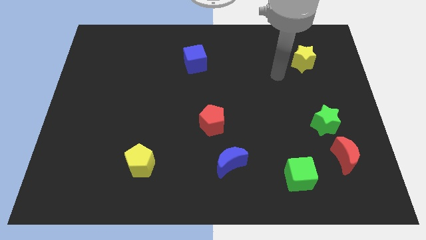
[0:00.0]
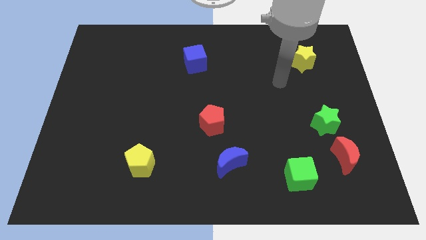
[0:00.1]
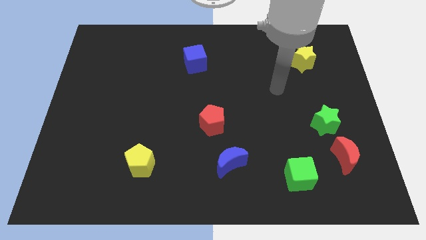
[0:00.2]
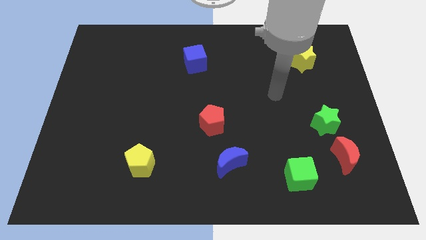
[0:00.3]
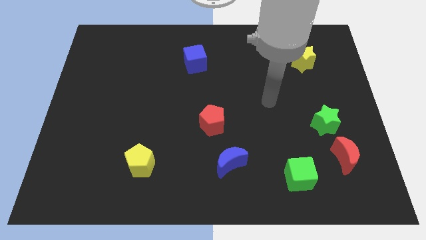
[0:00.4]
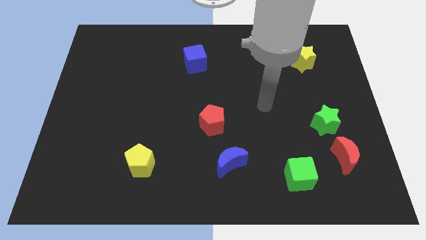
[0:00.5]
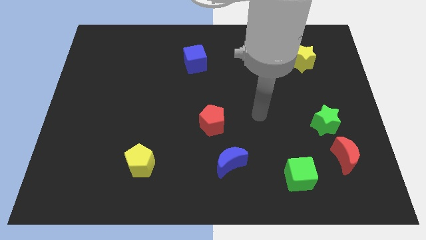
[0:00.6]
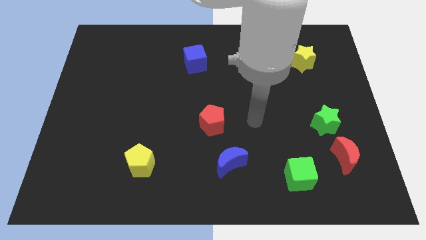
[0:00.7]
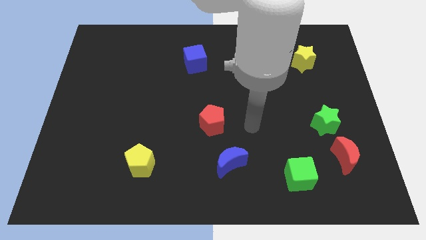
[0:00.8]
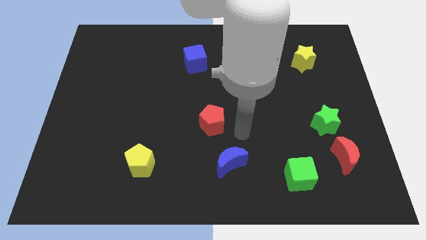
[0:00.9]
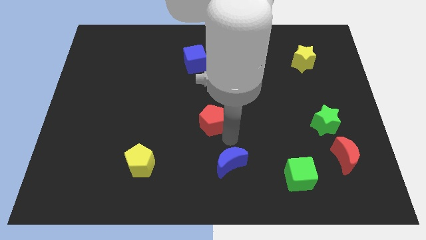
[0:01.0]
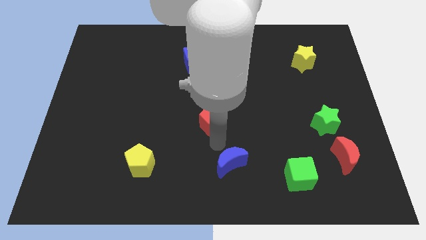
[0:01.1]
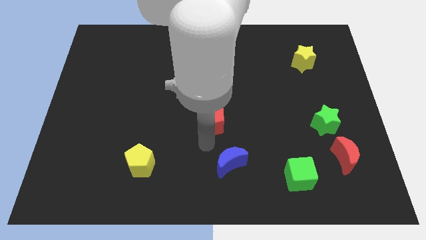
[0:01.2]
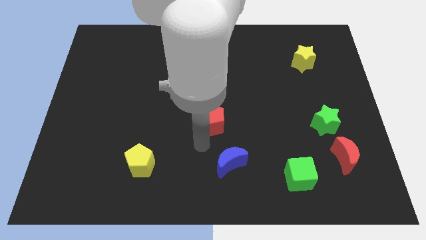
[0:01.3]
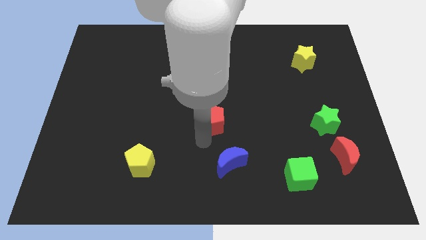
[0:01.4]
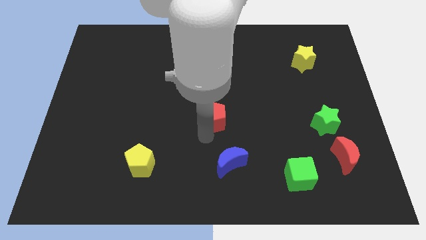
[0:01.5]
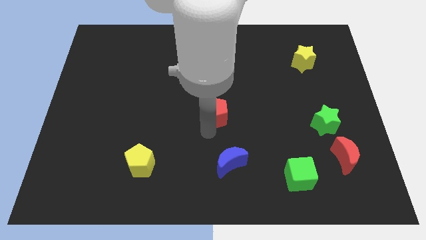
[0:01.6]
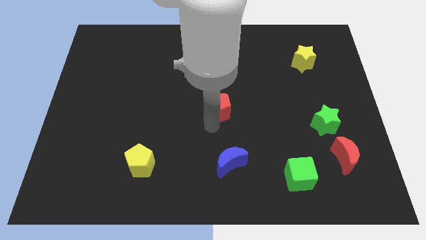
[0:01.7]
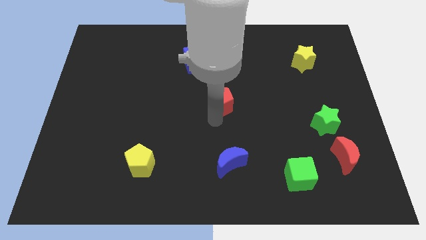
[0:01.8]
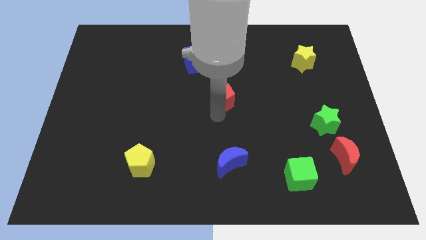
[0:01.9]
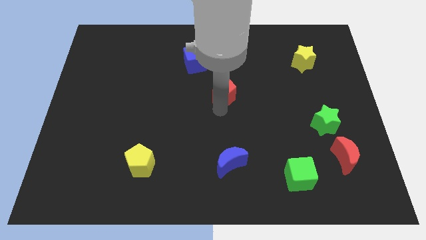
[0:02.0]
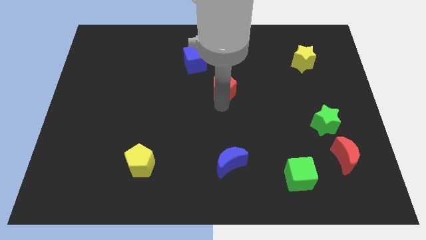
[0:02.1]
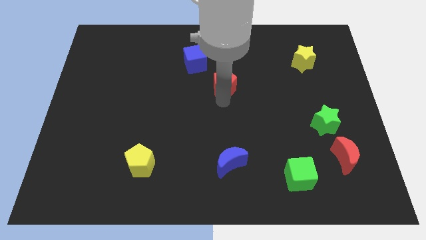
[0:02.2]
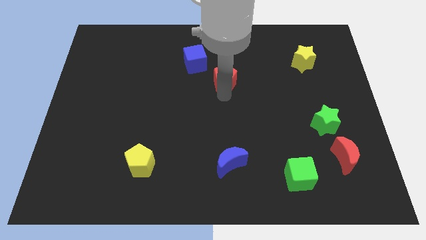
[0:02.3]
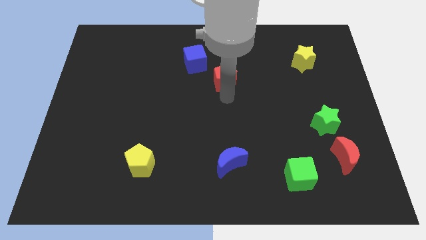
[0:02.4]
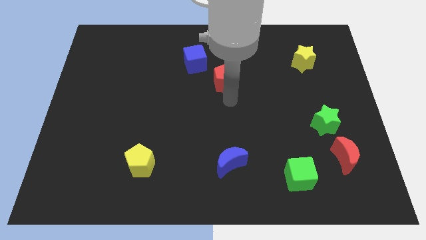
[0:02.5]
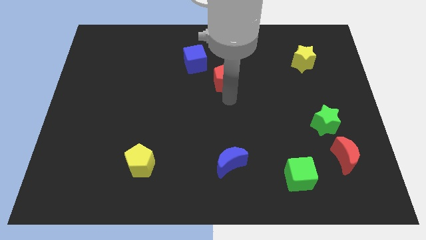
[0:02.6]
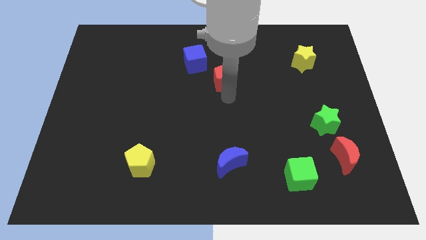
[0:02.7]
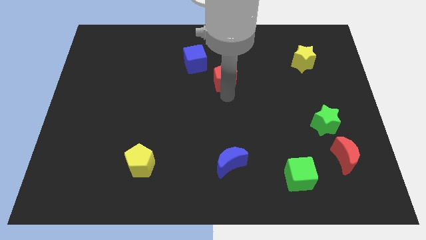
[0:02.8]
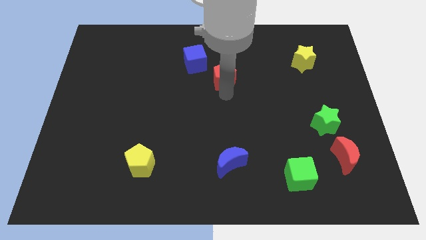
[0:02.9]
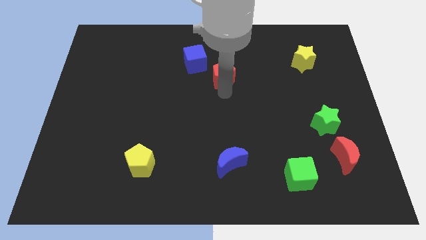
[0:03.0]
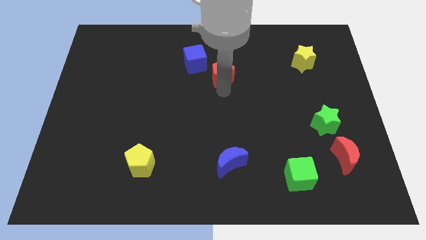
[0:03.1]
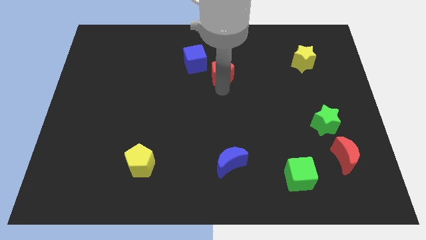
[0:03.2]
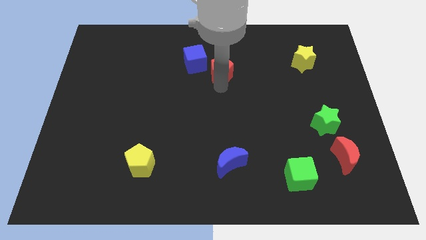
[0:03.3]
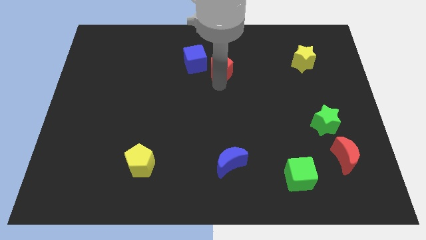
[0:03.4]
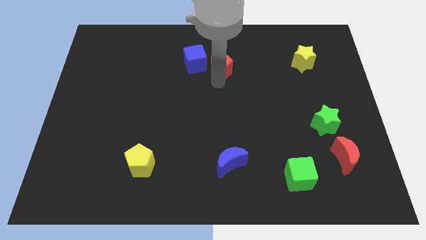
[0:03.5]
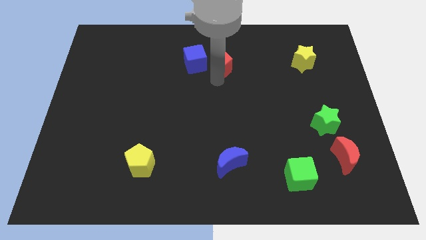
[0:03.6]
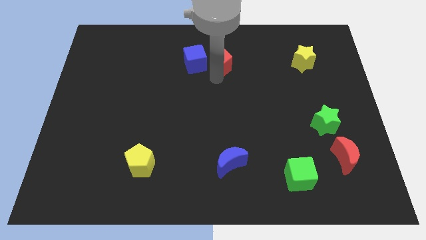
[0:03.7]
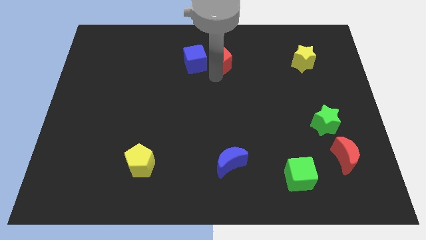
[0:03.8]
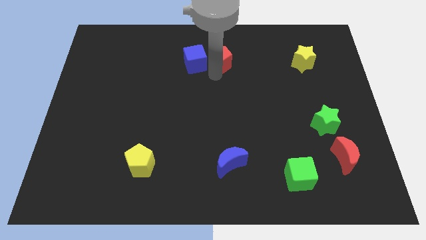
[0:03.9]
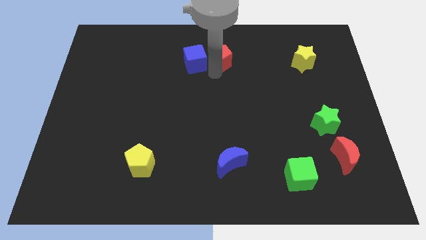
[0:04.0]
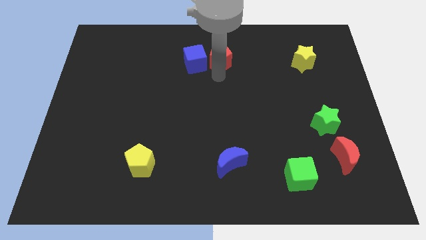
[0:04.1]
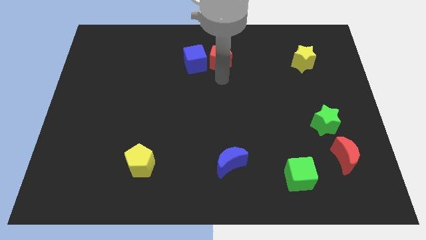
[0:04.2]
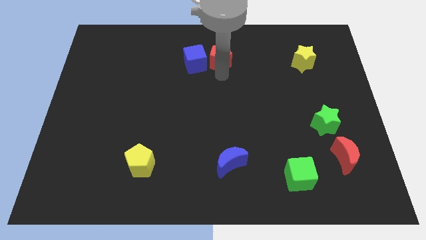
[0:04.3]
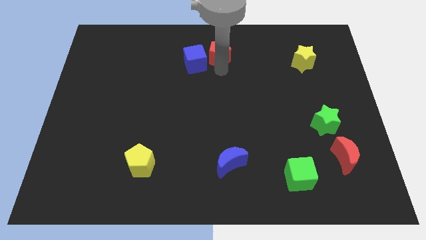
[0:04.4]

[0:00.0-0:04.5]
put the red pentagon to the top side

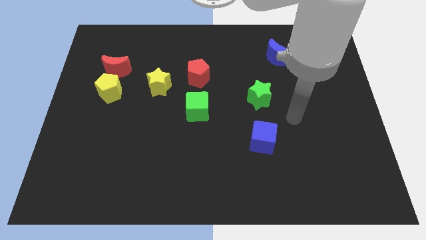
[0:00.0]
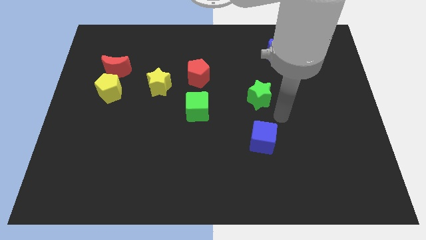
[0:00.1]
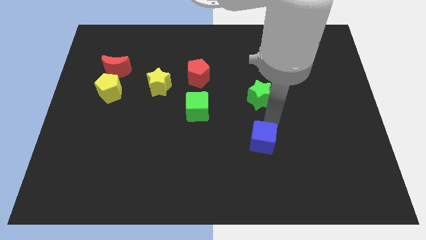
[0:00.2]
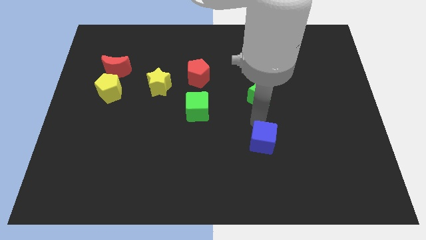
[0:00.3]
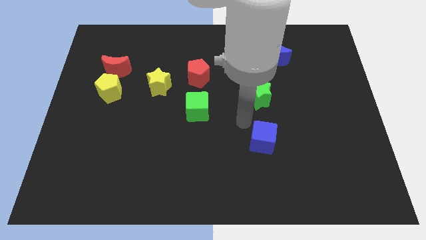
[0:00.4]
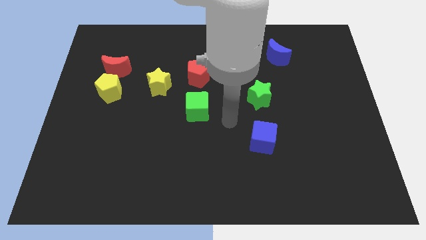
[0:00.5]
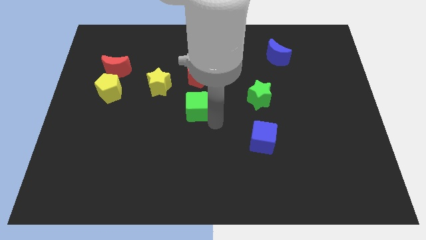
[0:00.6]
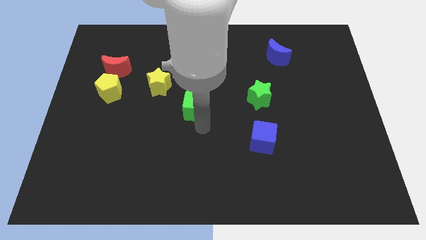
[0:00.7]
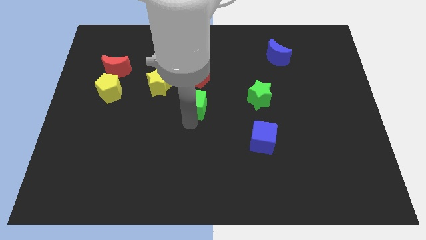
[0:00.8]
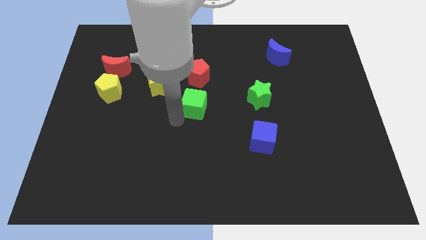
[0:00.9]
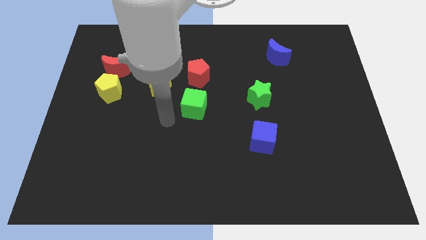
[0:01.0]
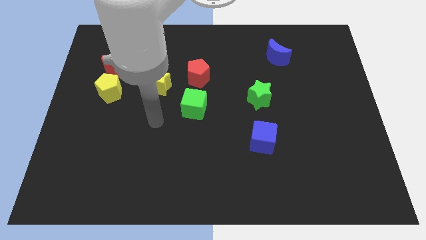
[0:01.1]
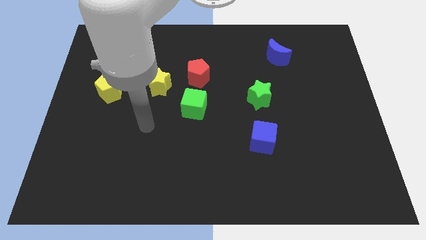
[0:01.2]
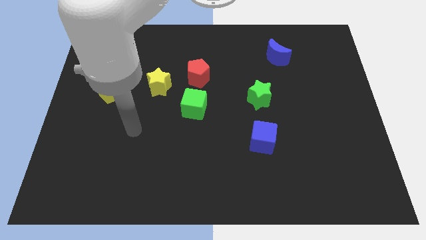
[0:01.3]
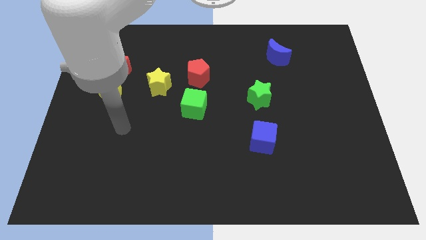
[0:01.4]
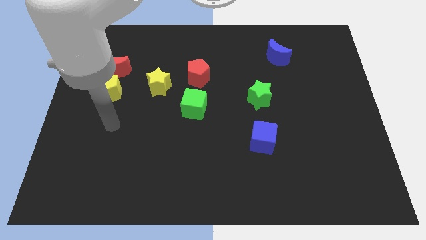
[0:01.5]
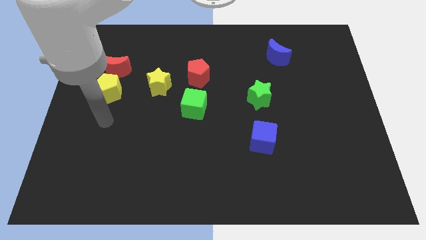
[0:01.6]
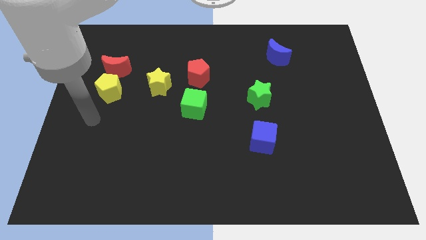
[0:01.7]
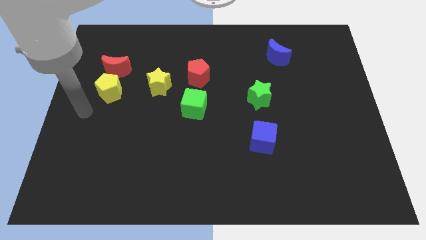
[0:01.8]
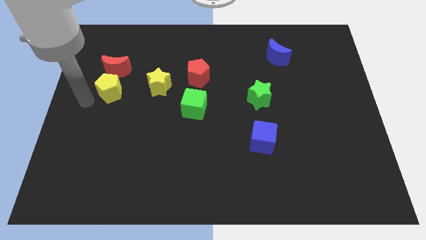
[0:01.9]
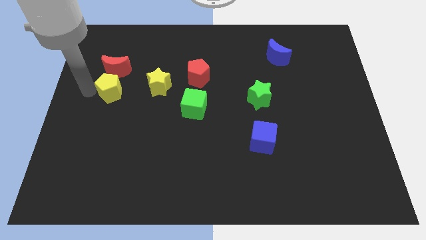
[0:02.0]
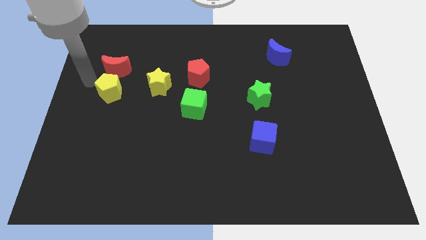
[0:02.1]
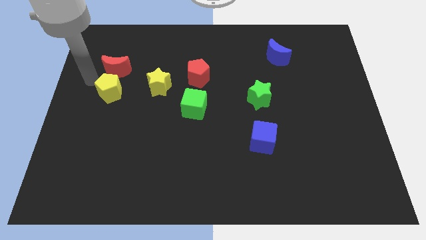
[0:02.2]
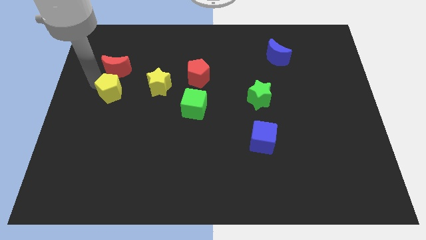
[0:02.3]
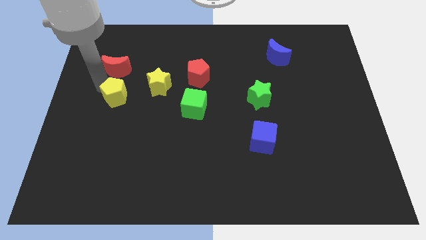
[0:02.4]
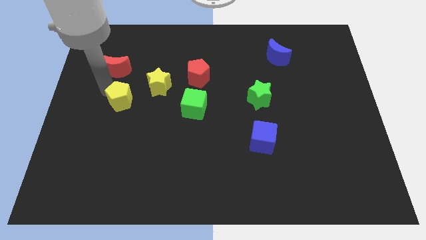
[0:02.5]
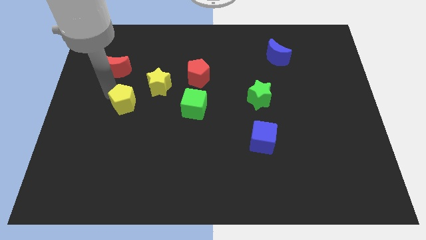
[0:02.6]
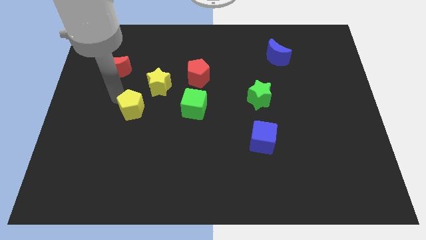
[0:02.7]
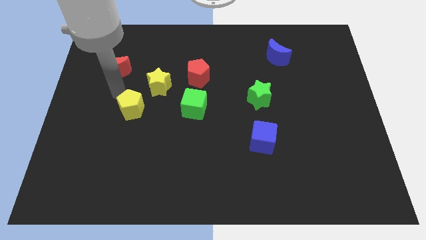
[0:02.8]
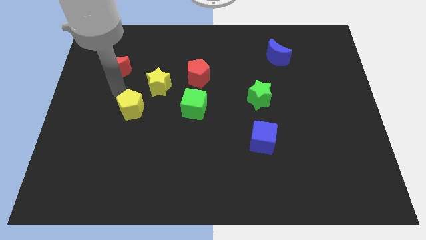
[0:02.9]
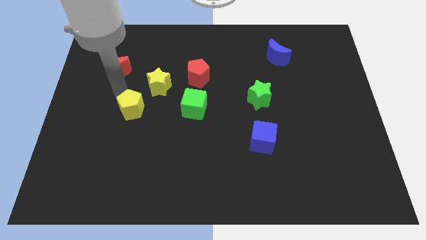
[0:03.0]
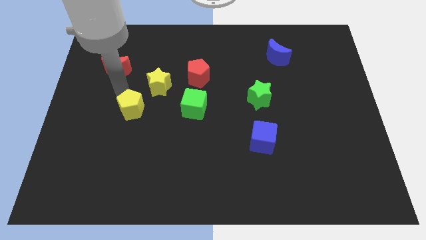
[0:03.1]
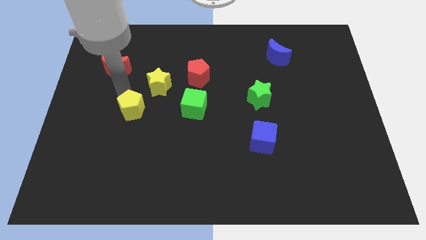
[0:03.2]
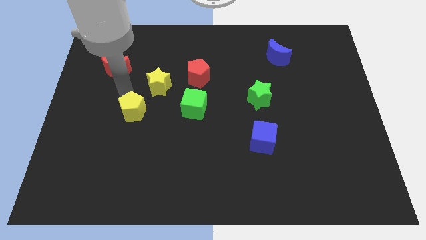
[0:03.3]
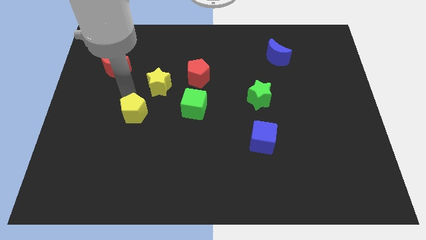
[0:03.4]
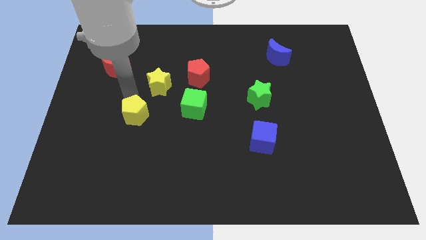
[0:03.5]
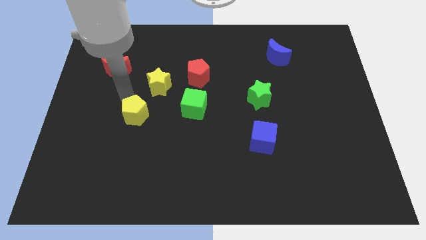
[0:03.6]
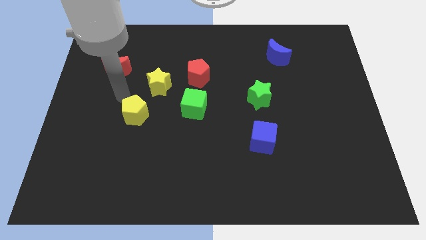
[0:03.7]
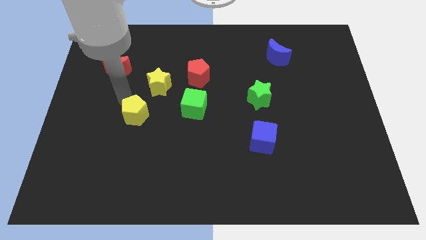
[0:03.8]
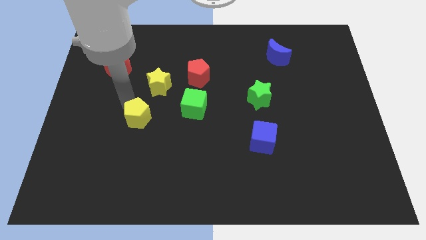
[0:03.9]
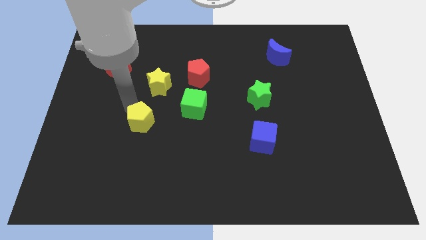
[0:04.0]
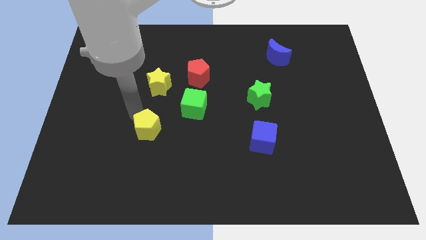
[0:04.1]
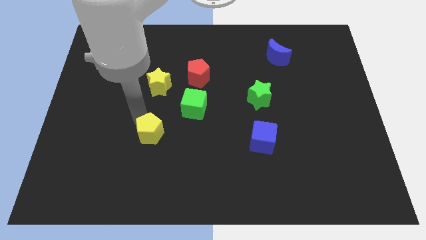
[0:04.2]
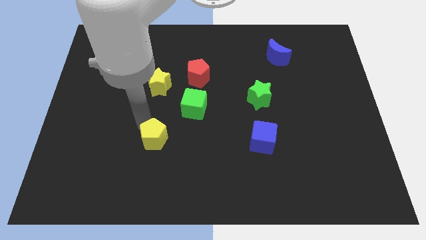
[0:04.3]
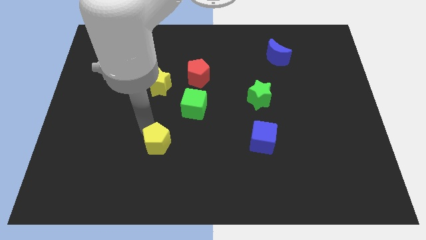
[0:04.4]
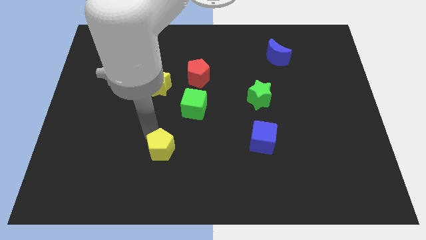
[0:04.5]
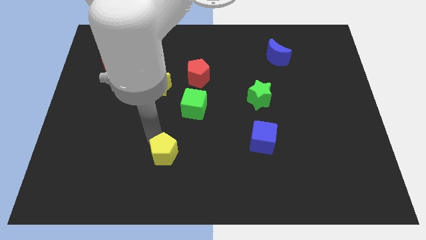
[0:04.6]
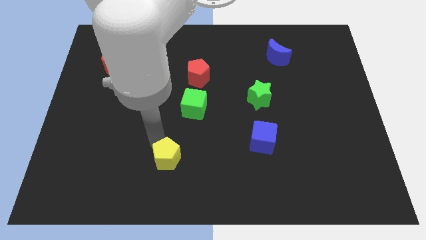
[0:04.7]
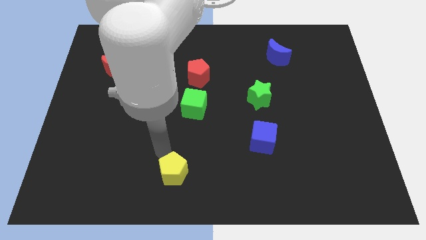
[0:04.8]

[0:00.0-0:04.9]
put the yellow pentagon to the bottom side
